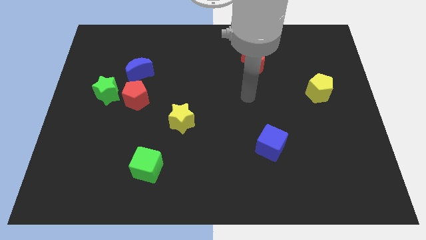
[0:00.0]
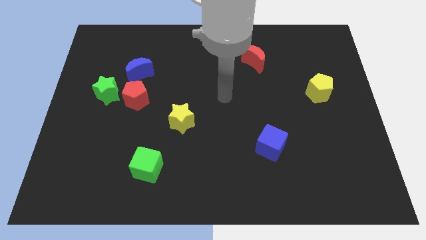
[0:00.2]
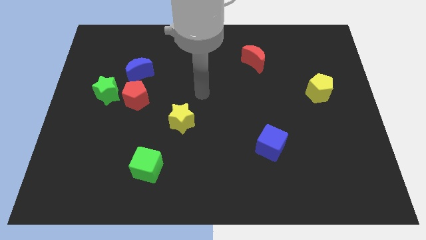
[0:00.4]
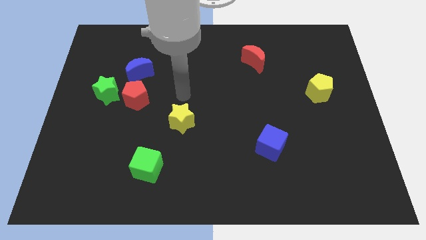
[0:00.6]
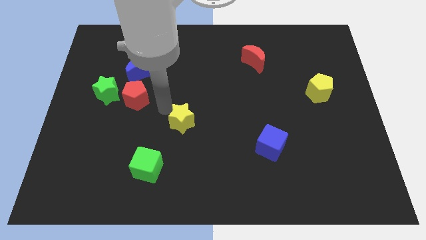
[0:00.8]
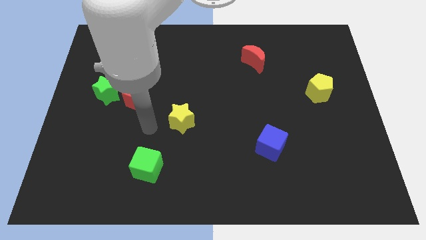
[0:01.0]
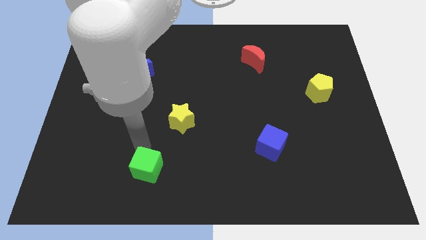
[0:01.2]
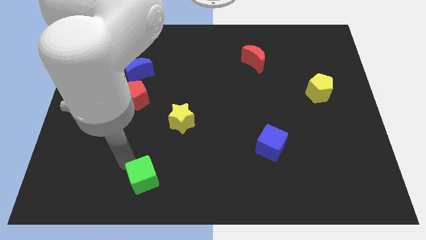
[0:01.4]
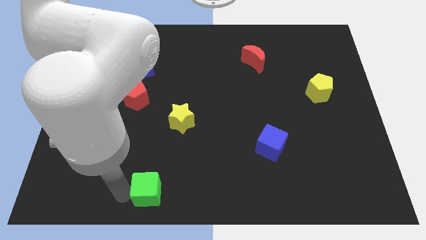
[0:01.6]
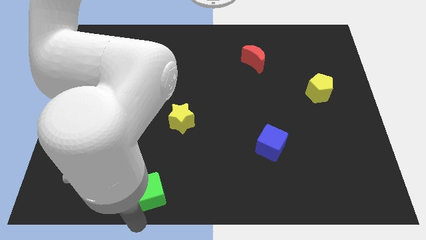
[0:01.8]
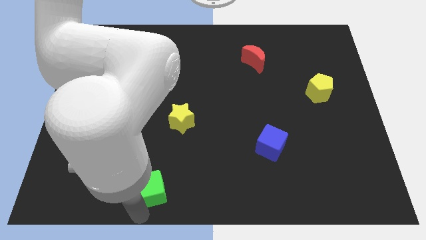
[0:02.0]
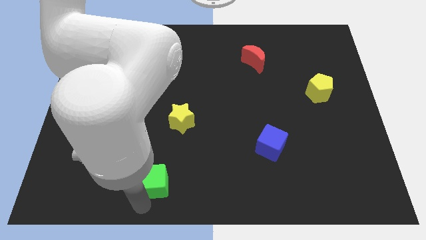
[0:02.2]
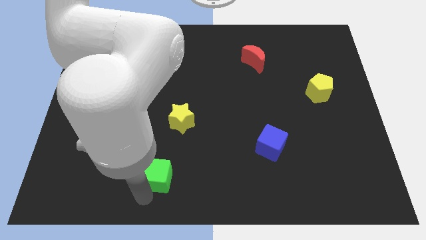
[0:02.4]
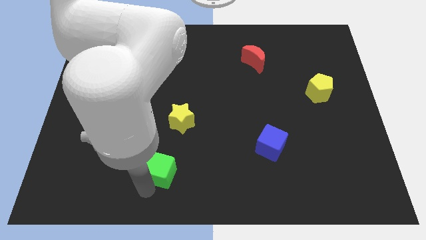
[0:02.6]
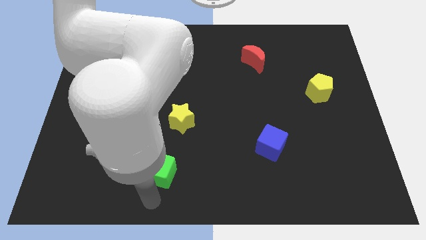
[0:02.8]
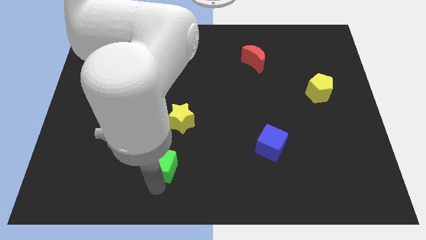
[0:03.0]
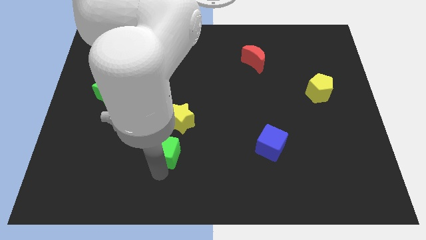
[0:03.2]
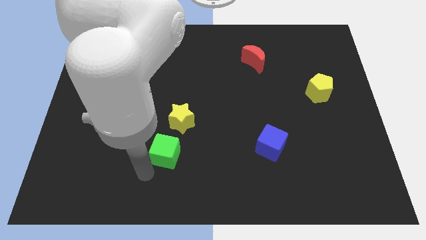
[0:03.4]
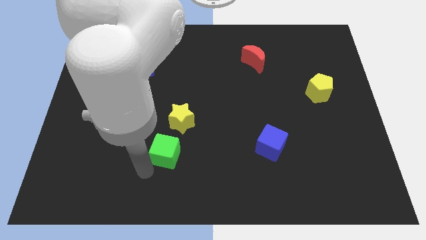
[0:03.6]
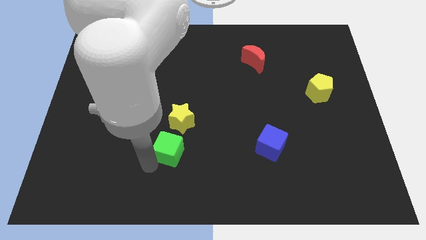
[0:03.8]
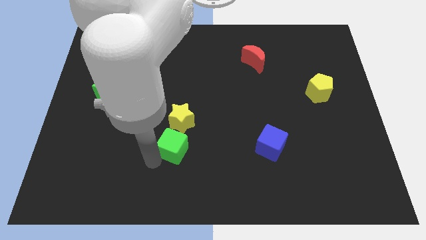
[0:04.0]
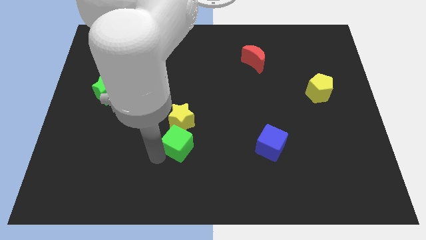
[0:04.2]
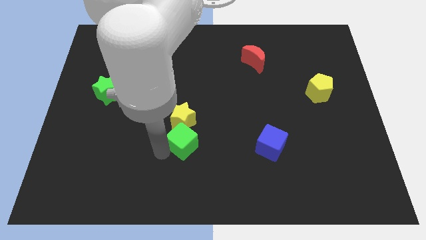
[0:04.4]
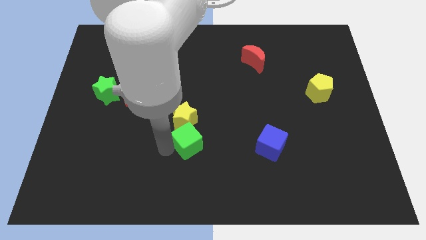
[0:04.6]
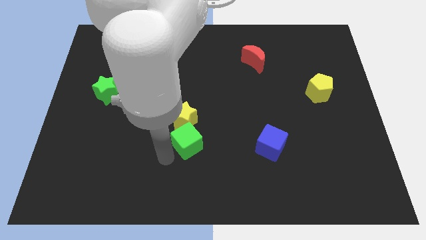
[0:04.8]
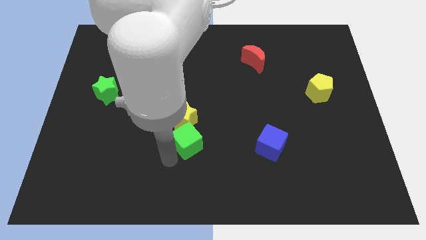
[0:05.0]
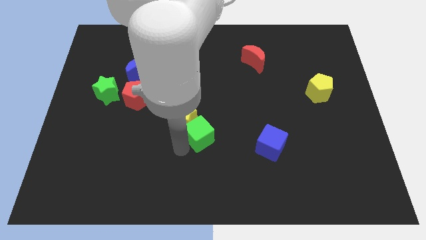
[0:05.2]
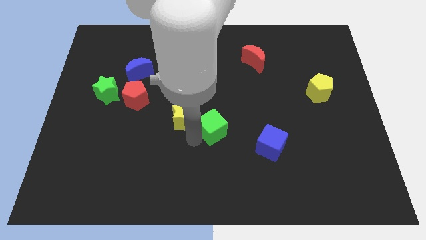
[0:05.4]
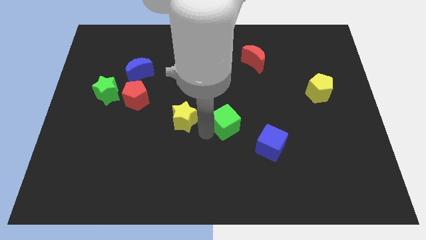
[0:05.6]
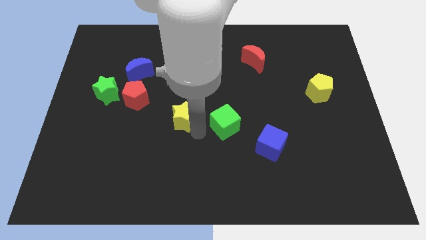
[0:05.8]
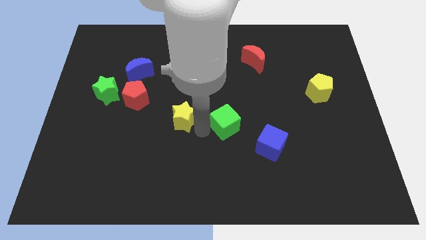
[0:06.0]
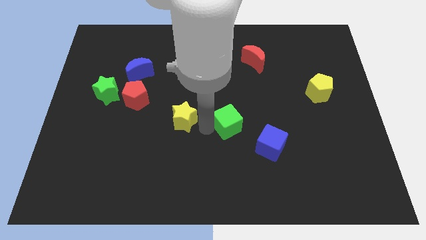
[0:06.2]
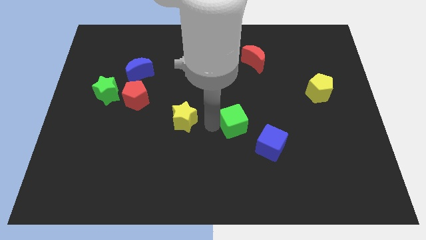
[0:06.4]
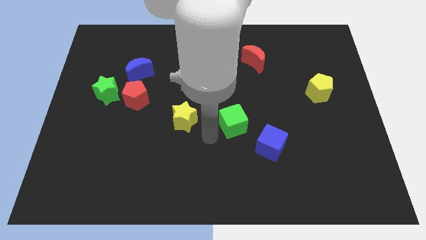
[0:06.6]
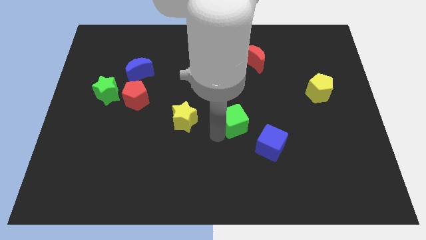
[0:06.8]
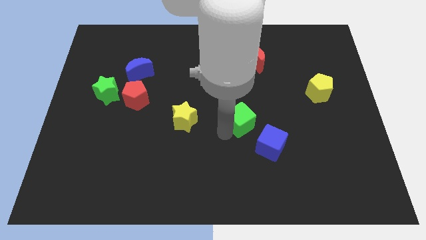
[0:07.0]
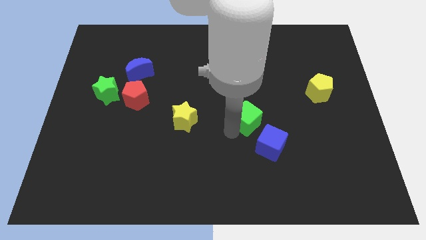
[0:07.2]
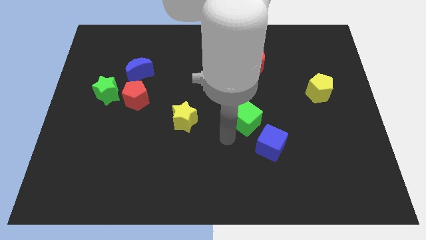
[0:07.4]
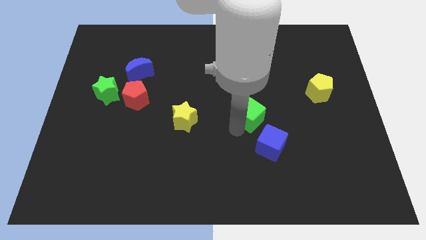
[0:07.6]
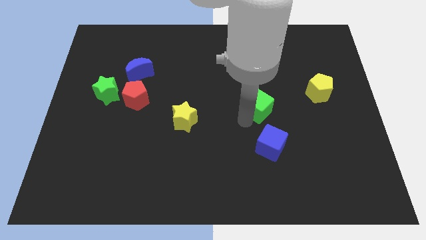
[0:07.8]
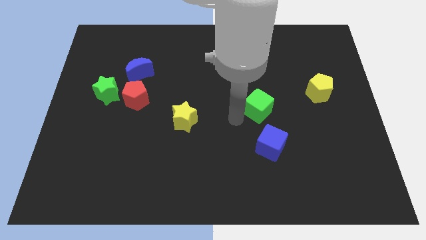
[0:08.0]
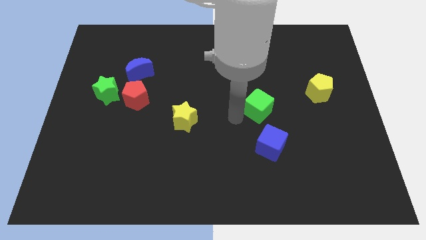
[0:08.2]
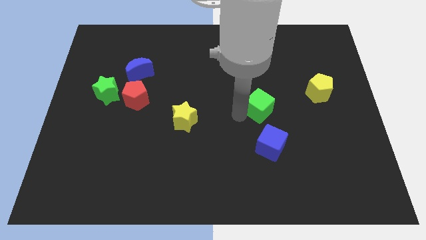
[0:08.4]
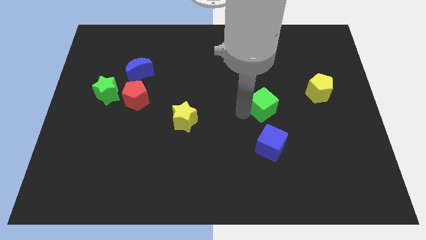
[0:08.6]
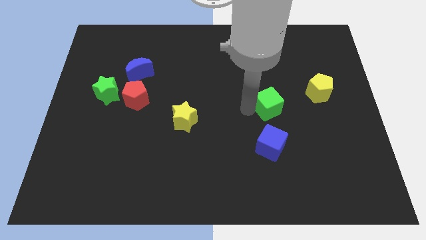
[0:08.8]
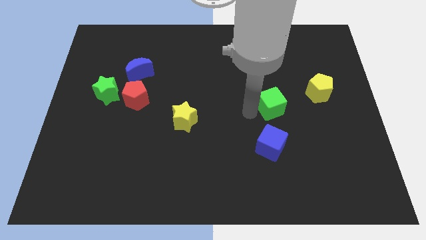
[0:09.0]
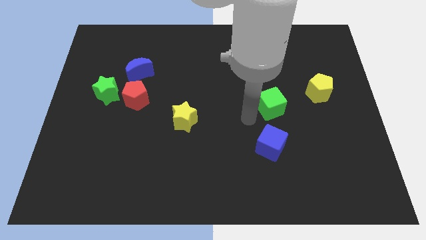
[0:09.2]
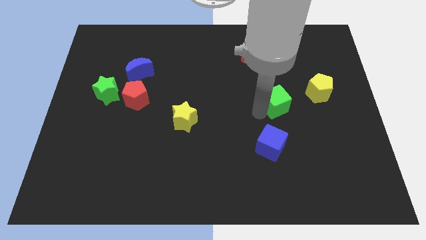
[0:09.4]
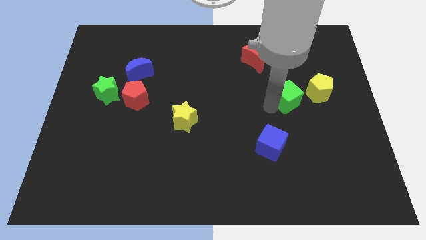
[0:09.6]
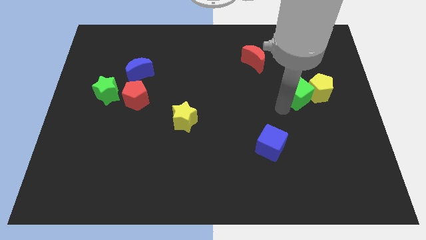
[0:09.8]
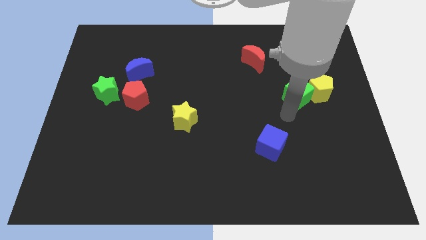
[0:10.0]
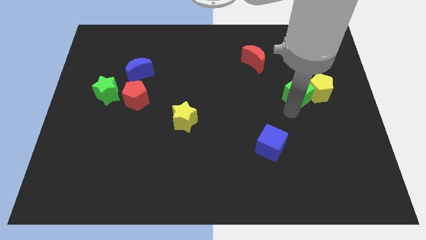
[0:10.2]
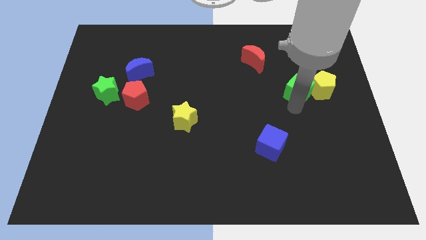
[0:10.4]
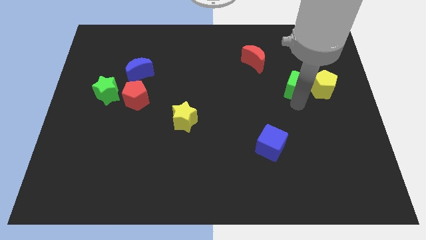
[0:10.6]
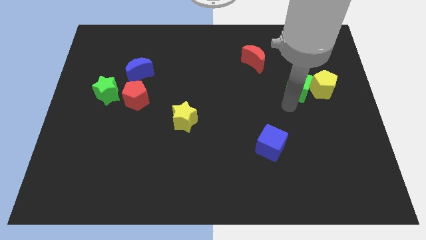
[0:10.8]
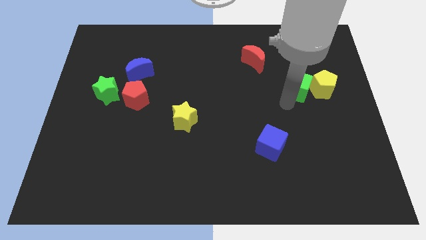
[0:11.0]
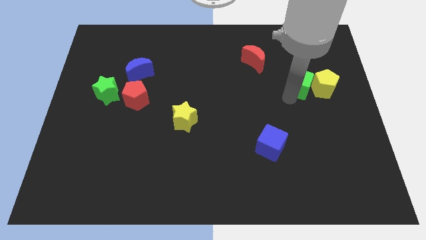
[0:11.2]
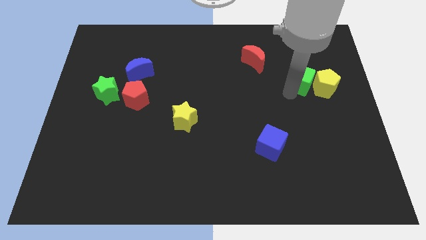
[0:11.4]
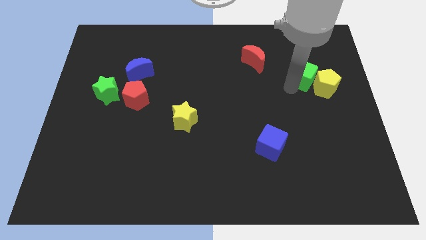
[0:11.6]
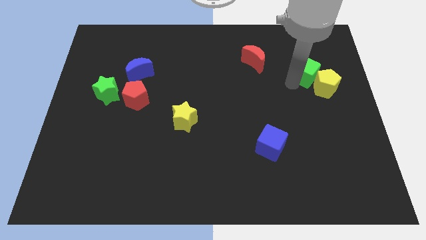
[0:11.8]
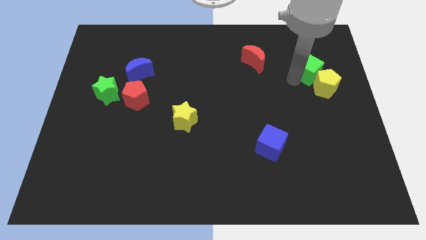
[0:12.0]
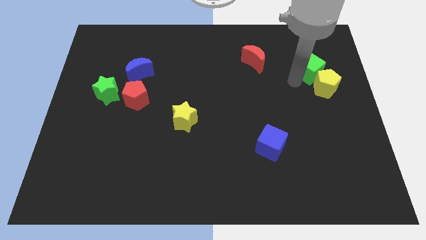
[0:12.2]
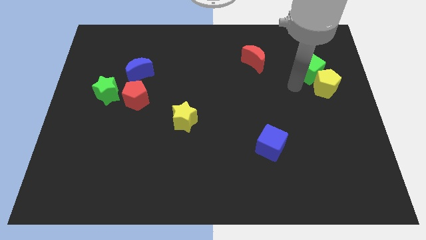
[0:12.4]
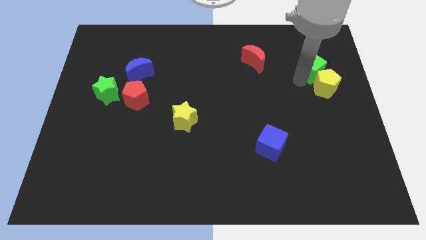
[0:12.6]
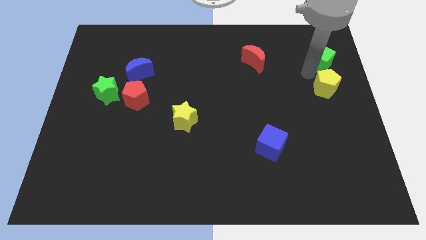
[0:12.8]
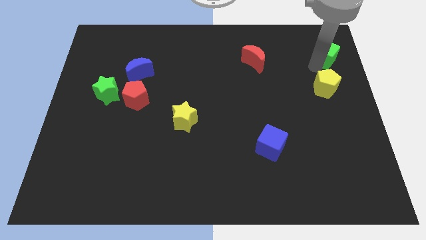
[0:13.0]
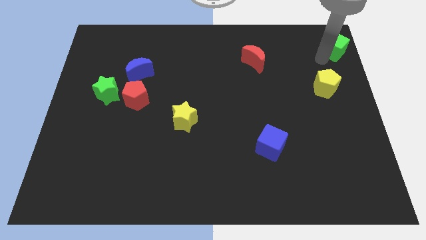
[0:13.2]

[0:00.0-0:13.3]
move the green cube to the top right corner
